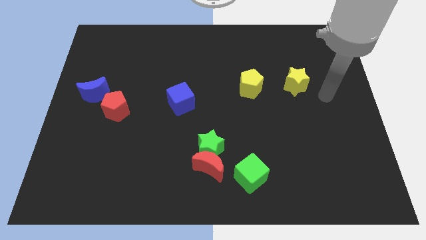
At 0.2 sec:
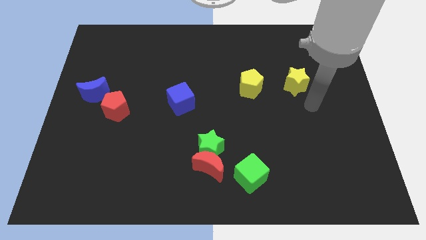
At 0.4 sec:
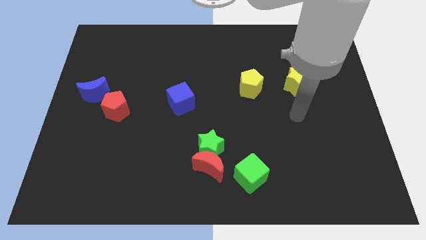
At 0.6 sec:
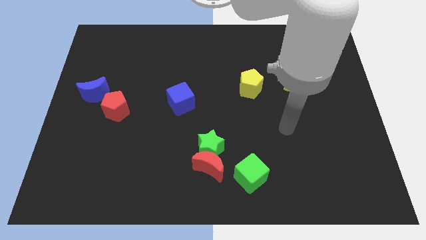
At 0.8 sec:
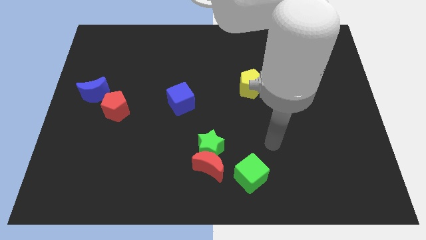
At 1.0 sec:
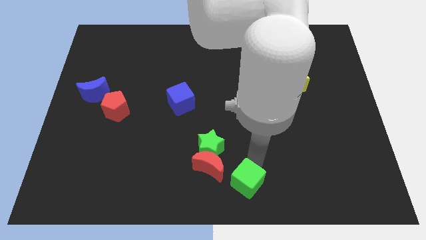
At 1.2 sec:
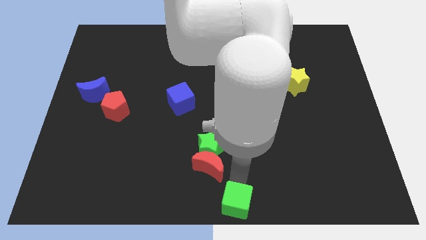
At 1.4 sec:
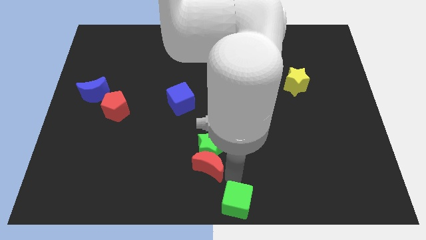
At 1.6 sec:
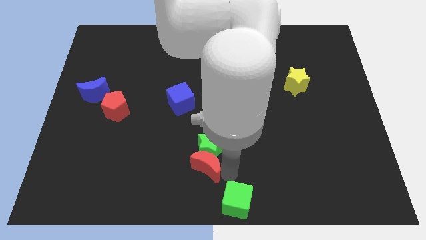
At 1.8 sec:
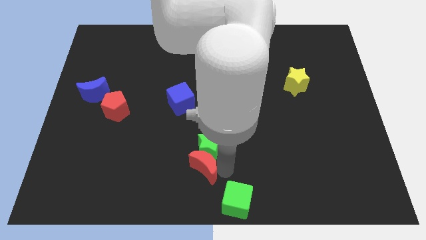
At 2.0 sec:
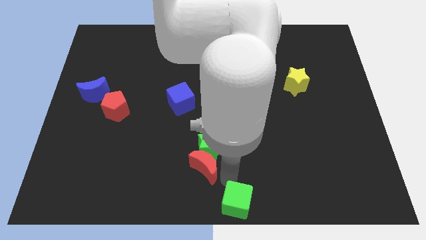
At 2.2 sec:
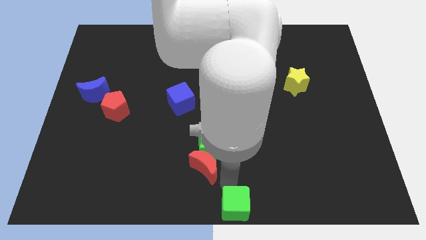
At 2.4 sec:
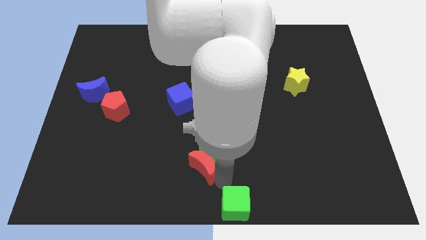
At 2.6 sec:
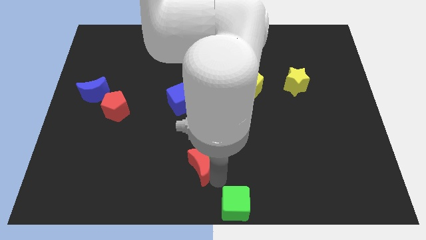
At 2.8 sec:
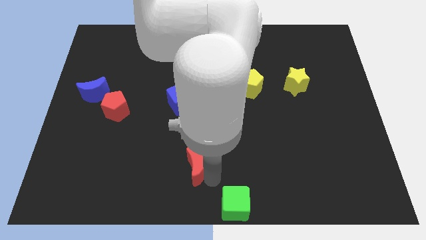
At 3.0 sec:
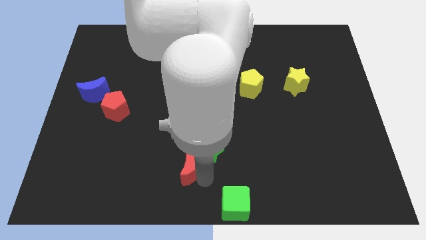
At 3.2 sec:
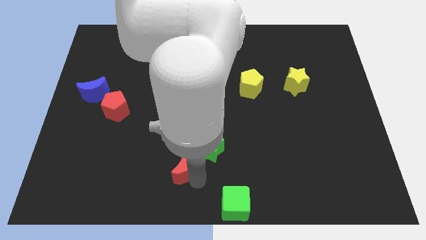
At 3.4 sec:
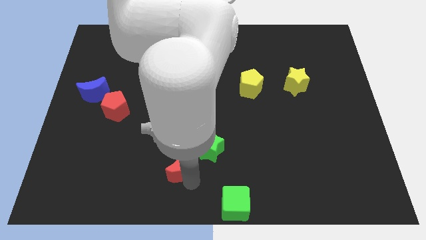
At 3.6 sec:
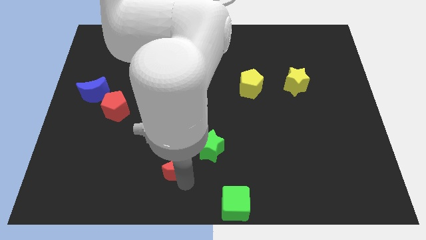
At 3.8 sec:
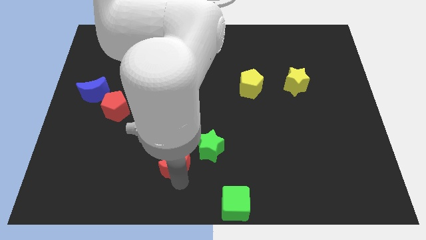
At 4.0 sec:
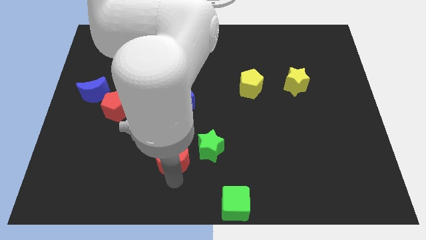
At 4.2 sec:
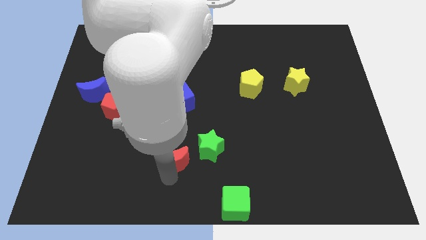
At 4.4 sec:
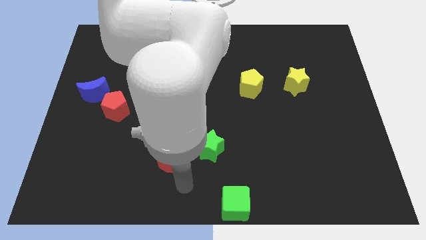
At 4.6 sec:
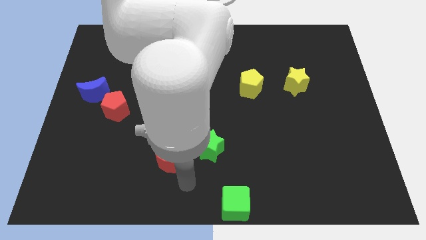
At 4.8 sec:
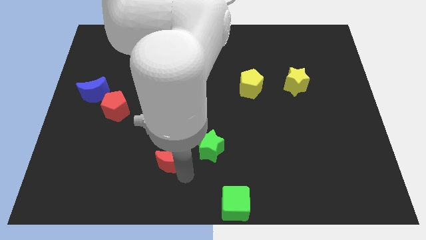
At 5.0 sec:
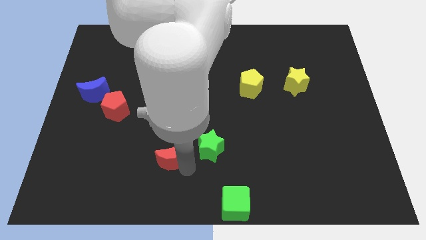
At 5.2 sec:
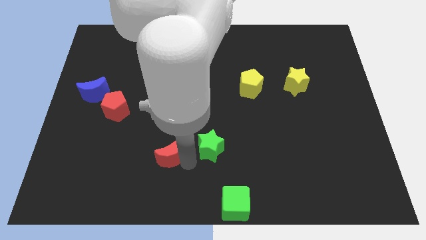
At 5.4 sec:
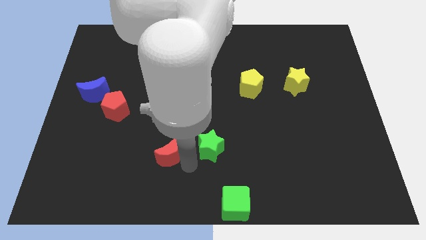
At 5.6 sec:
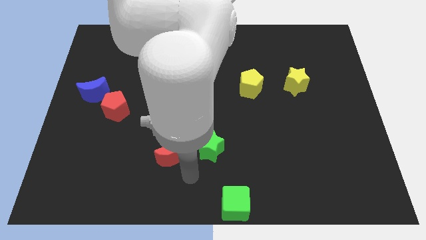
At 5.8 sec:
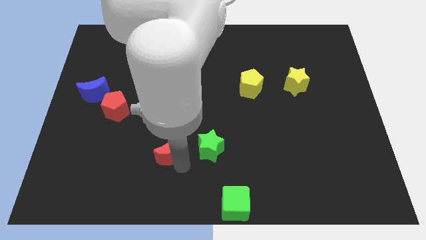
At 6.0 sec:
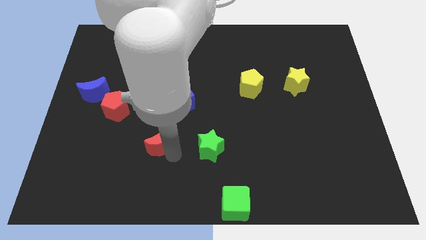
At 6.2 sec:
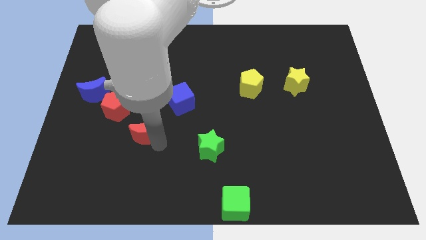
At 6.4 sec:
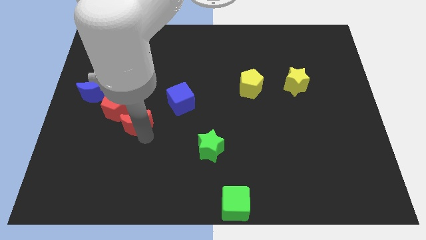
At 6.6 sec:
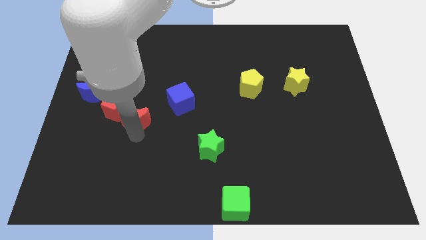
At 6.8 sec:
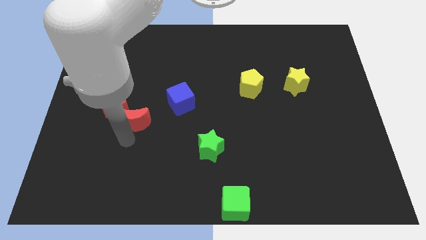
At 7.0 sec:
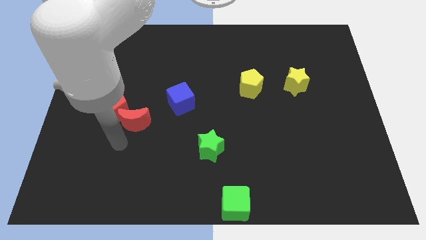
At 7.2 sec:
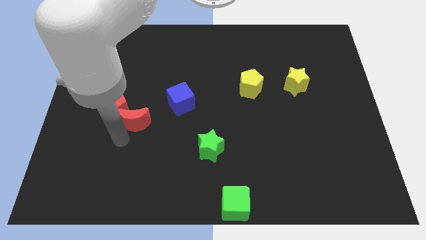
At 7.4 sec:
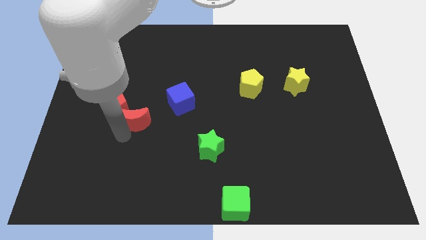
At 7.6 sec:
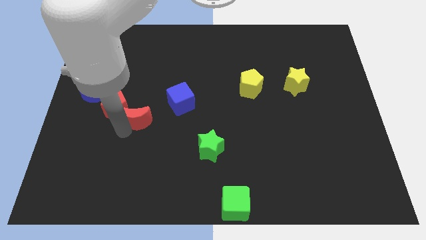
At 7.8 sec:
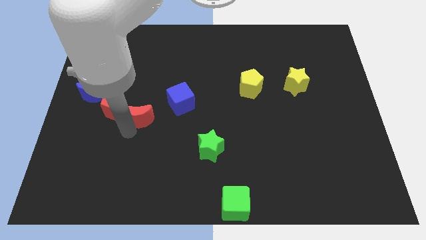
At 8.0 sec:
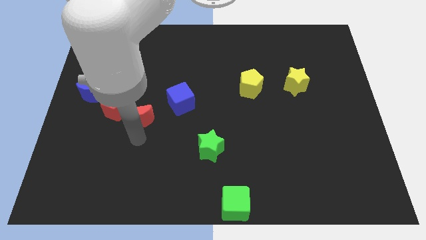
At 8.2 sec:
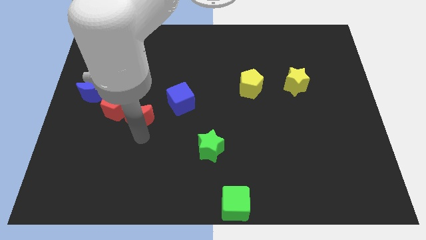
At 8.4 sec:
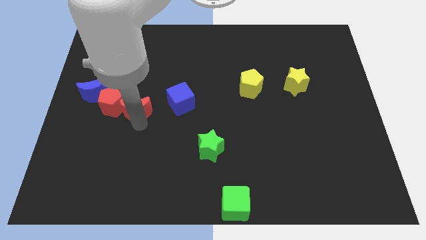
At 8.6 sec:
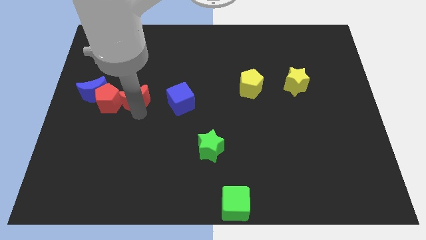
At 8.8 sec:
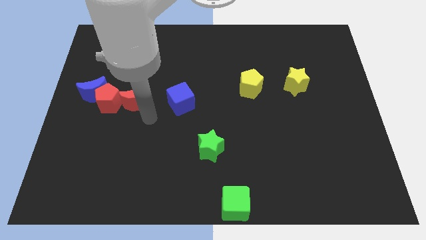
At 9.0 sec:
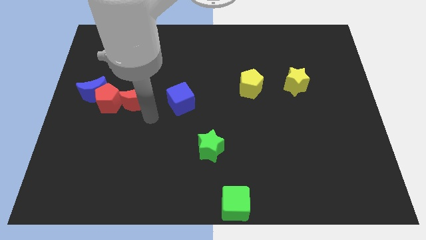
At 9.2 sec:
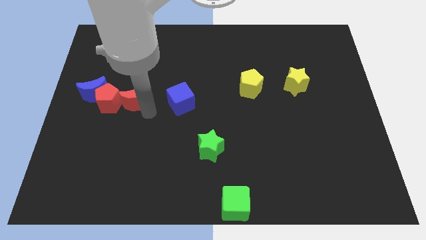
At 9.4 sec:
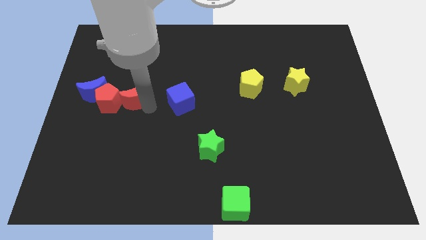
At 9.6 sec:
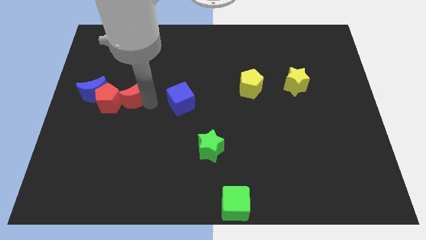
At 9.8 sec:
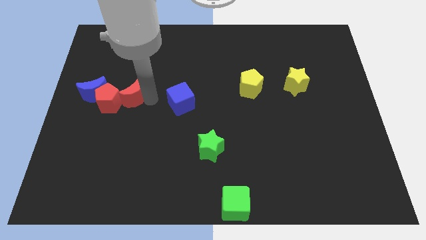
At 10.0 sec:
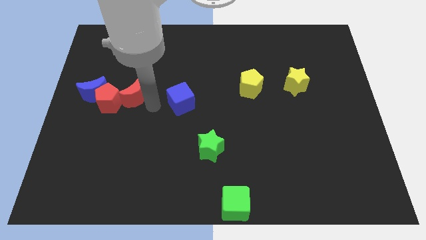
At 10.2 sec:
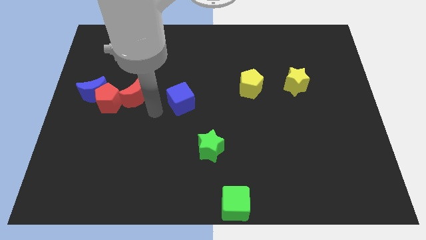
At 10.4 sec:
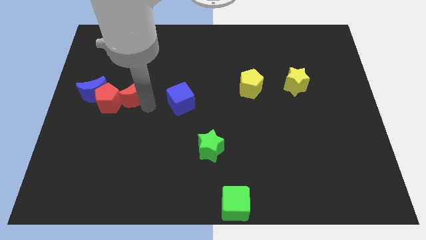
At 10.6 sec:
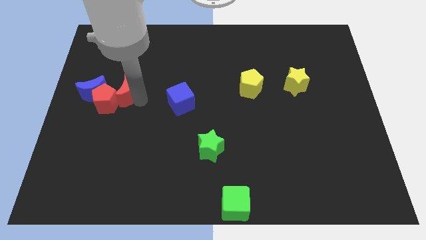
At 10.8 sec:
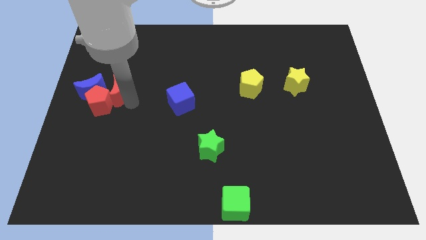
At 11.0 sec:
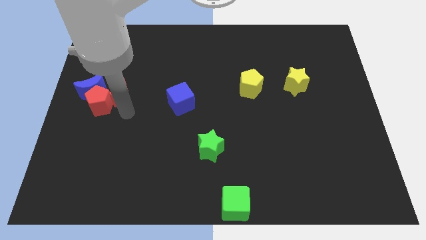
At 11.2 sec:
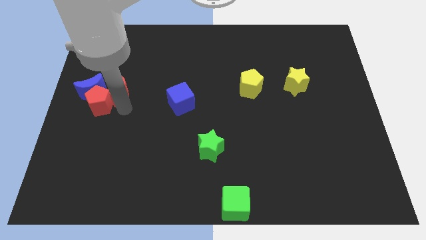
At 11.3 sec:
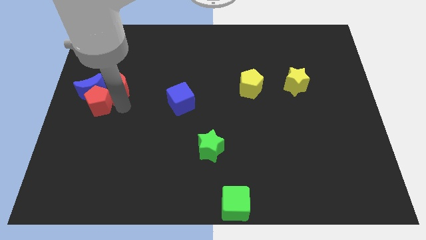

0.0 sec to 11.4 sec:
slide the red moon to the top right of the blue moon
